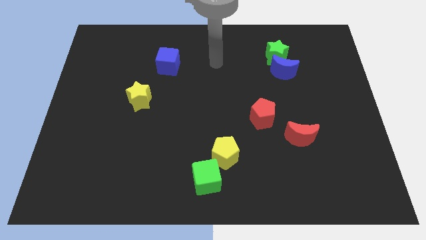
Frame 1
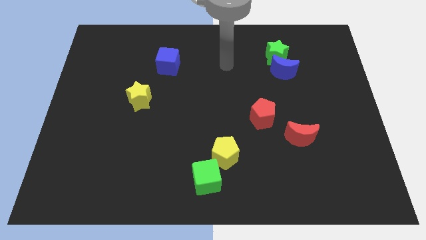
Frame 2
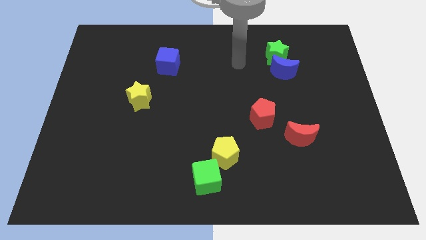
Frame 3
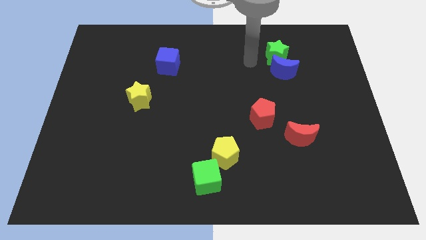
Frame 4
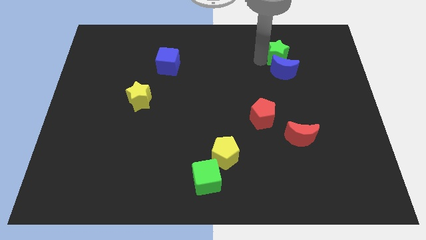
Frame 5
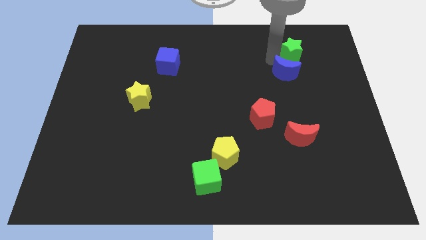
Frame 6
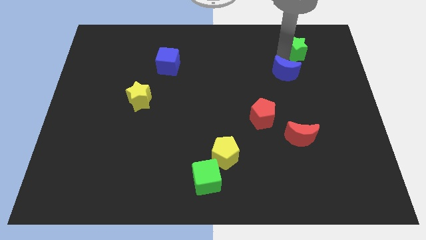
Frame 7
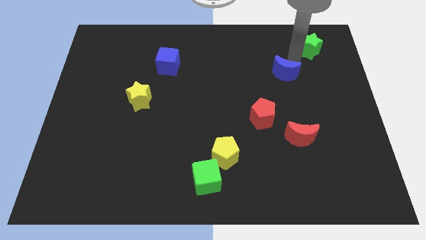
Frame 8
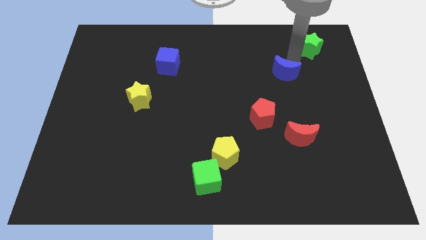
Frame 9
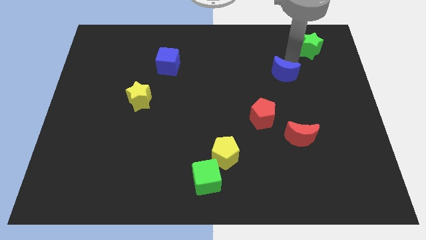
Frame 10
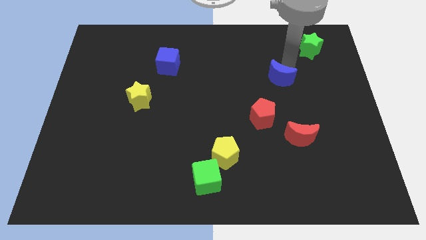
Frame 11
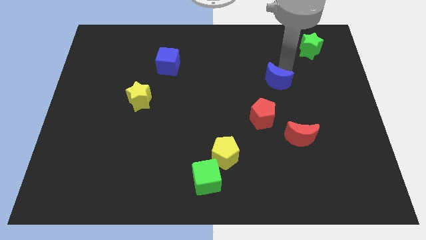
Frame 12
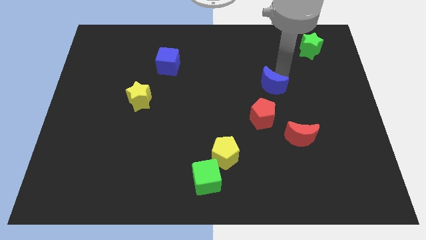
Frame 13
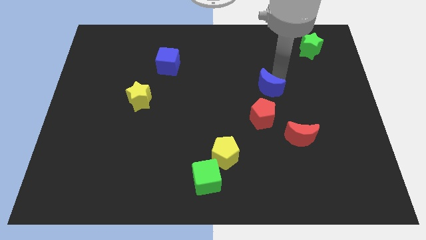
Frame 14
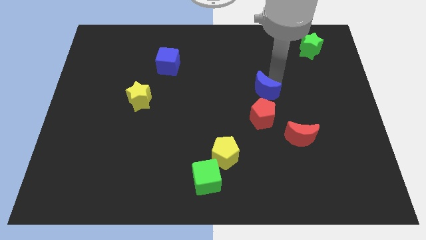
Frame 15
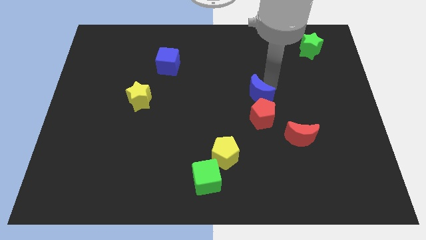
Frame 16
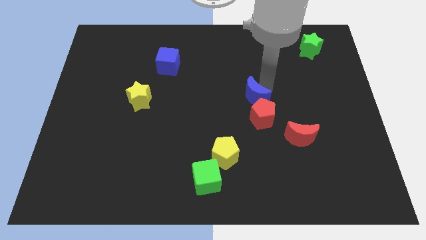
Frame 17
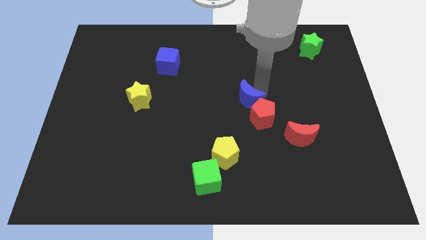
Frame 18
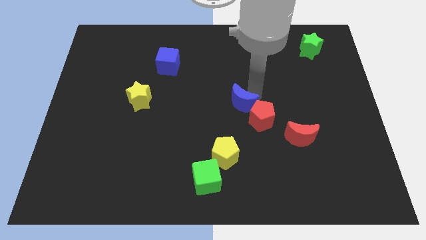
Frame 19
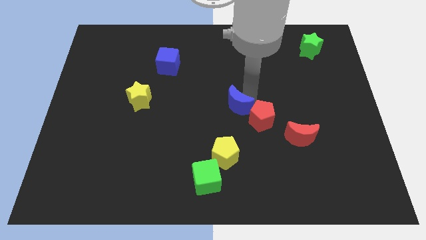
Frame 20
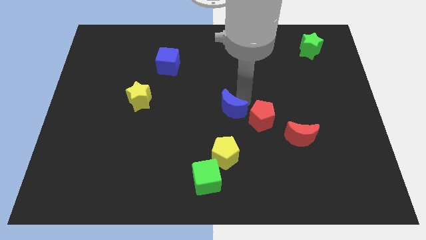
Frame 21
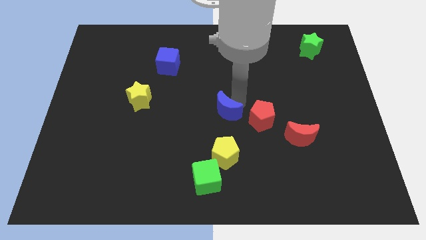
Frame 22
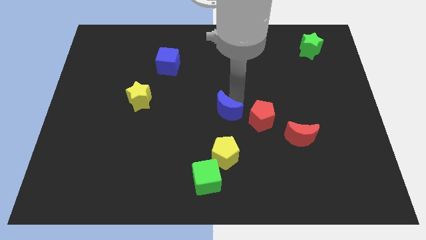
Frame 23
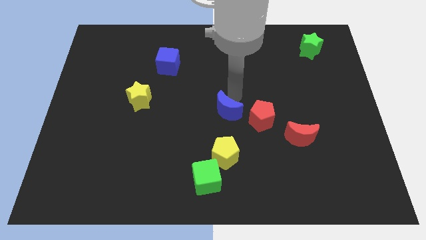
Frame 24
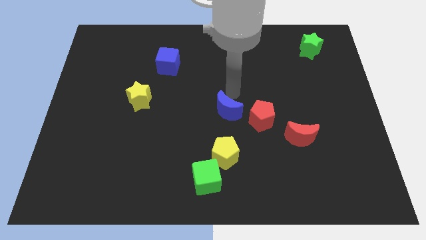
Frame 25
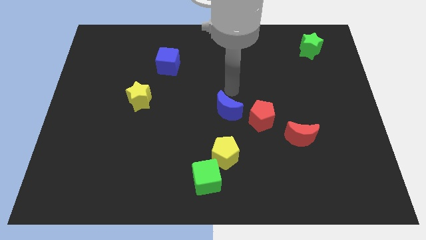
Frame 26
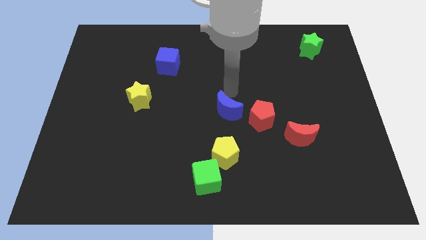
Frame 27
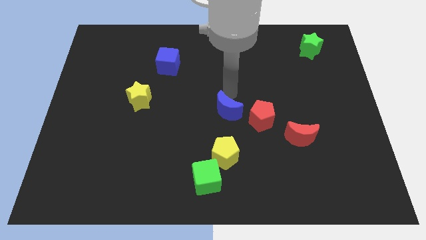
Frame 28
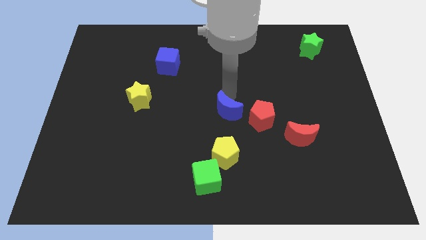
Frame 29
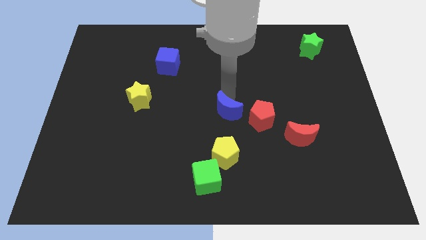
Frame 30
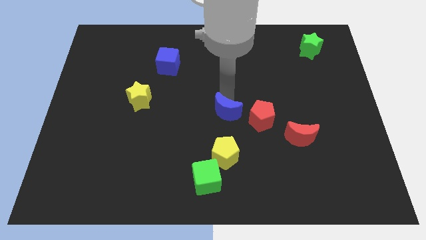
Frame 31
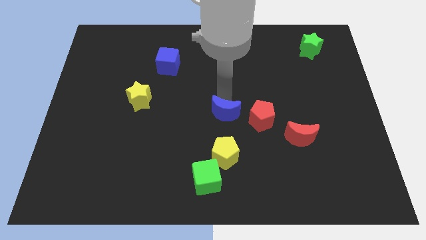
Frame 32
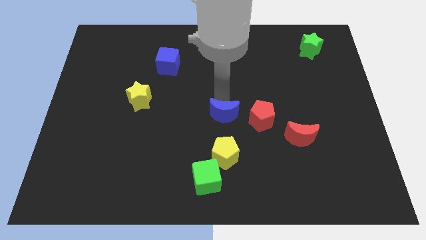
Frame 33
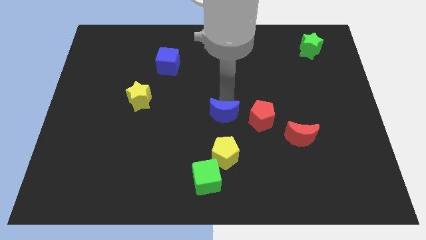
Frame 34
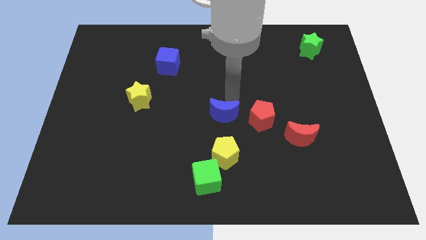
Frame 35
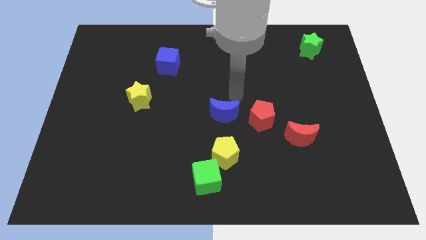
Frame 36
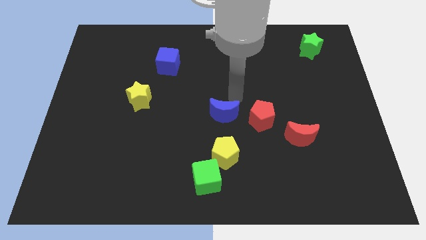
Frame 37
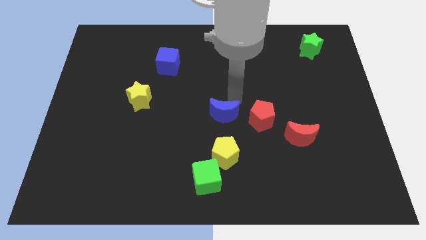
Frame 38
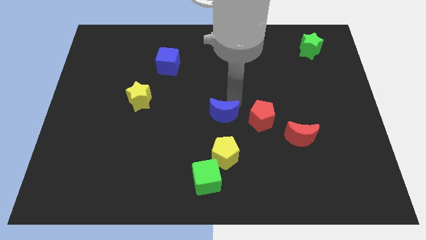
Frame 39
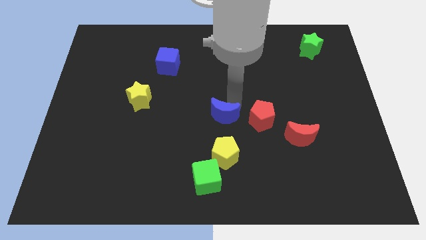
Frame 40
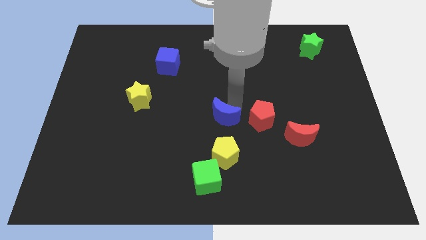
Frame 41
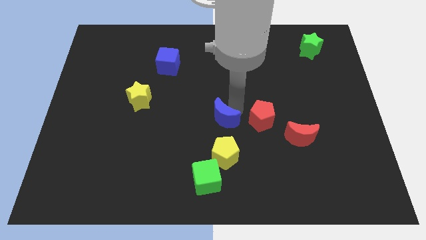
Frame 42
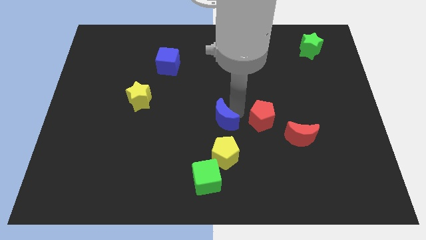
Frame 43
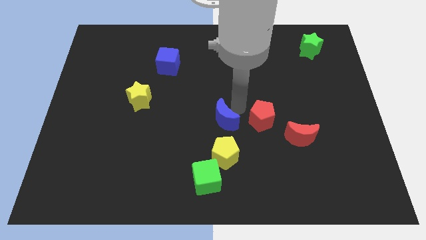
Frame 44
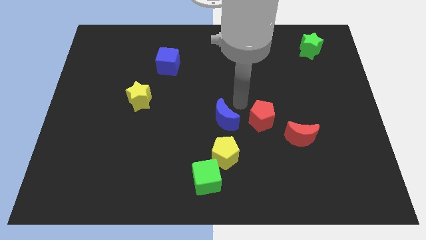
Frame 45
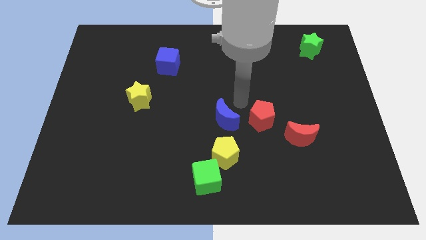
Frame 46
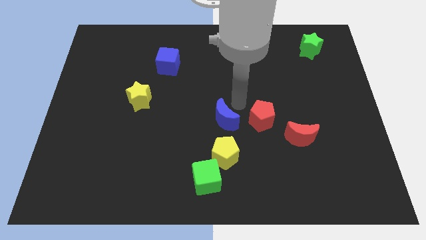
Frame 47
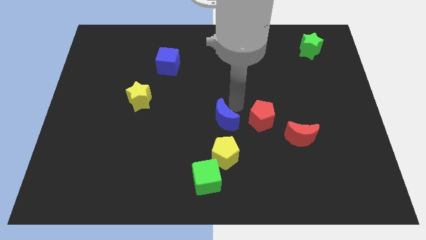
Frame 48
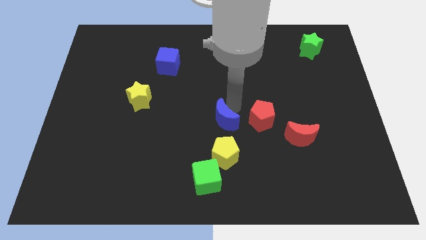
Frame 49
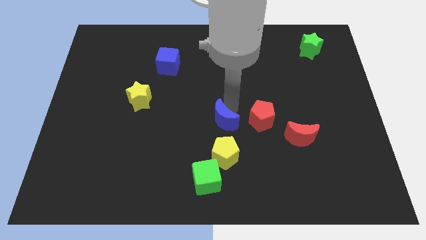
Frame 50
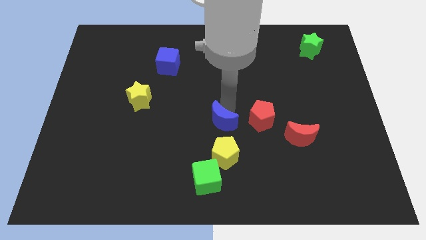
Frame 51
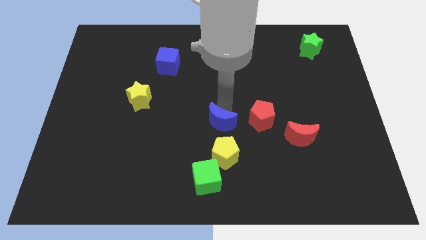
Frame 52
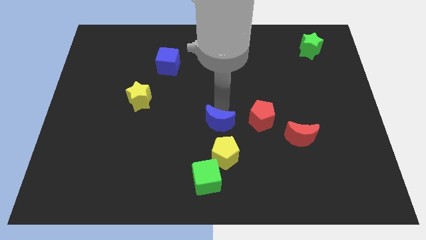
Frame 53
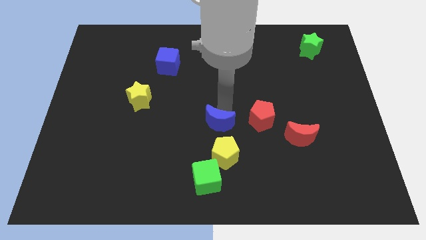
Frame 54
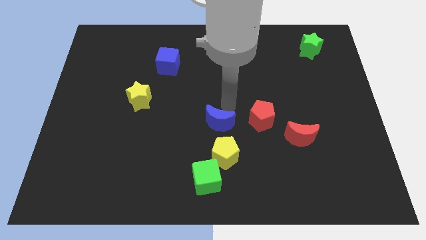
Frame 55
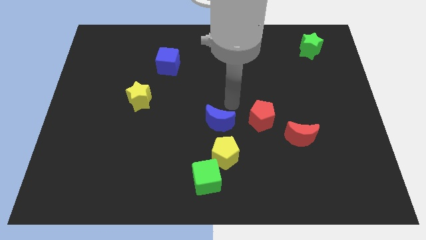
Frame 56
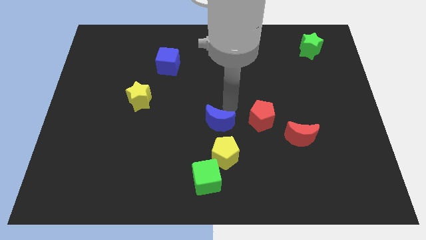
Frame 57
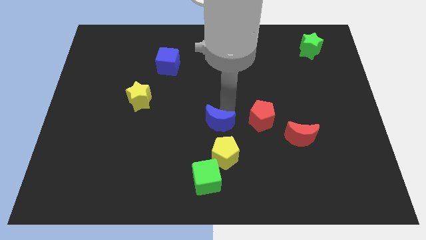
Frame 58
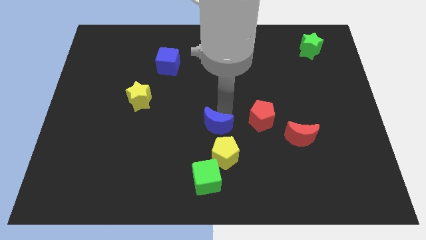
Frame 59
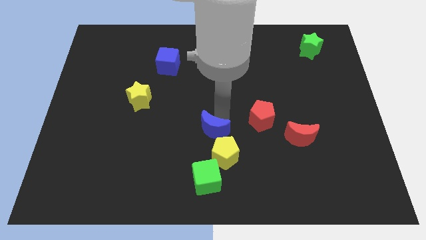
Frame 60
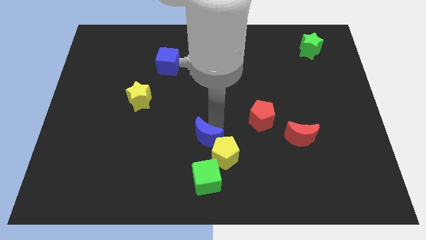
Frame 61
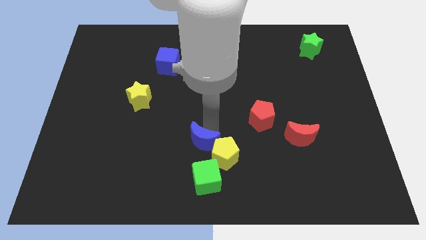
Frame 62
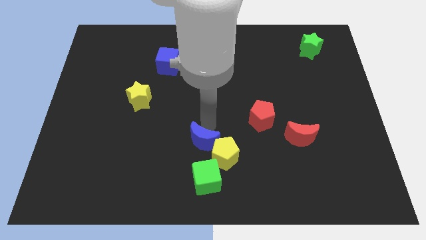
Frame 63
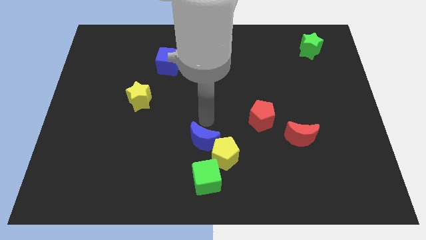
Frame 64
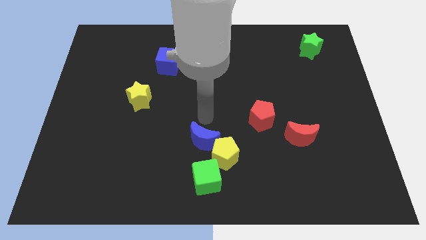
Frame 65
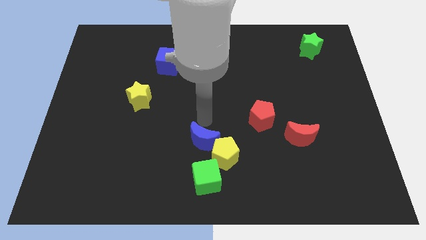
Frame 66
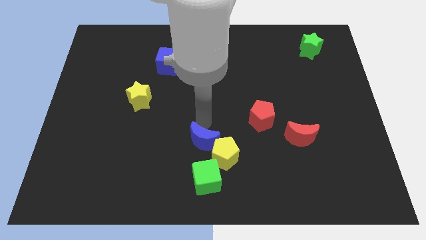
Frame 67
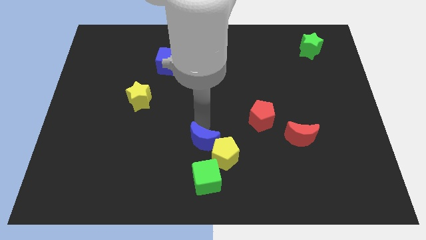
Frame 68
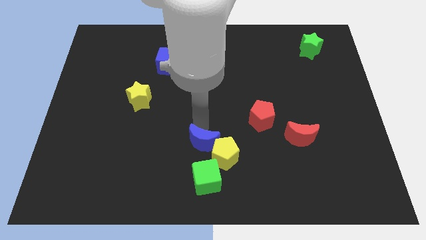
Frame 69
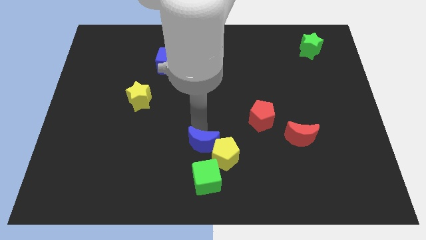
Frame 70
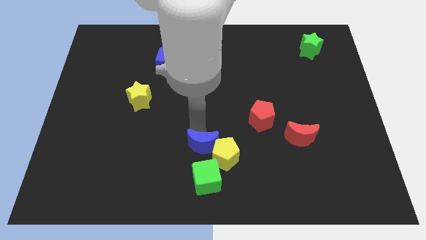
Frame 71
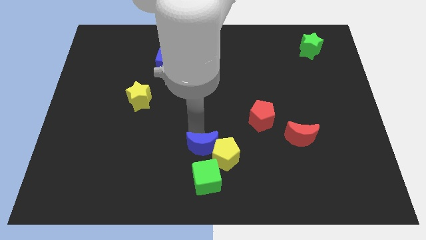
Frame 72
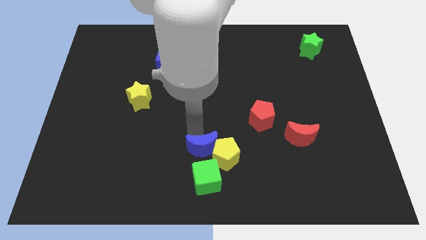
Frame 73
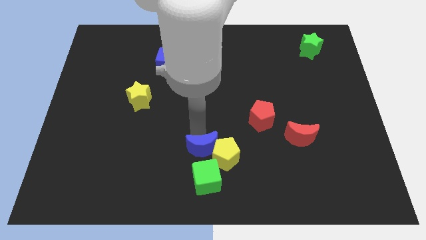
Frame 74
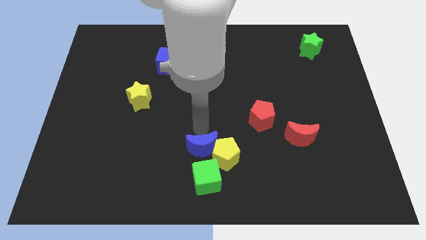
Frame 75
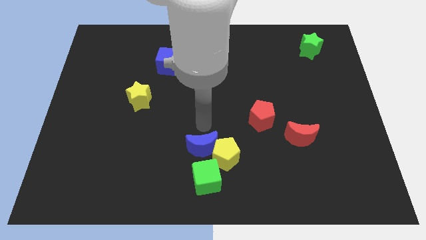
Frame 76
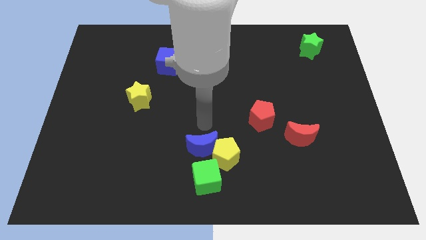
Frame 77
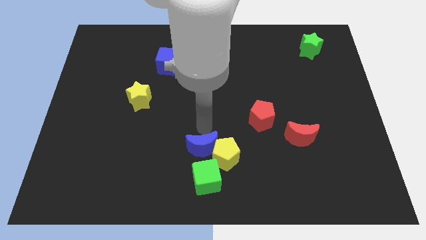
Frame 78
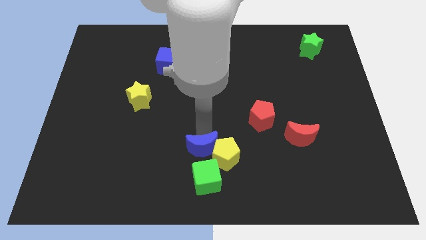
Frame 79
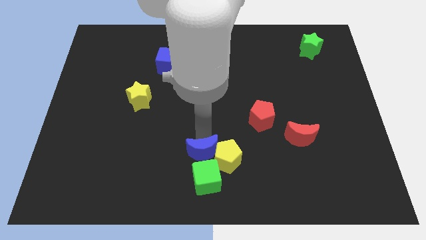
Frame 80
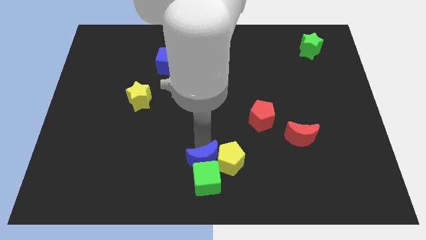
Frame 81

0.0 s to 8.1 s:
move the blue moon next to the green cube
